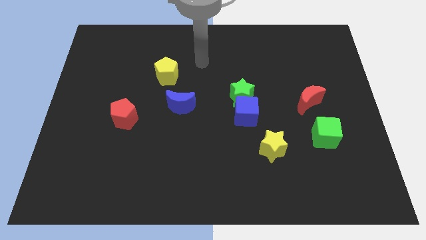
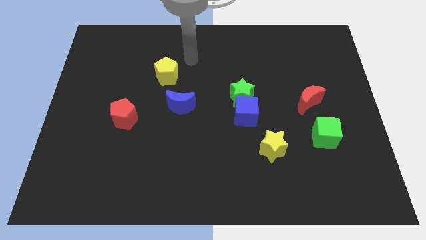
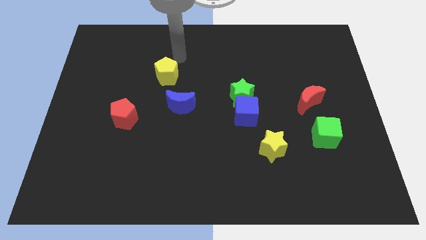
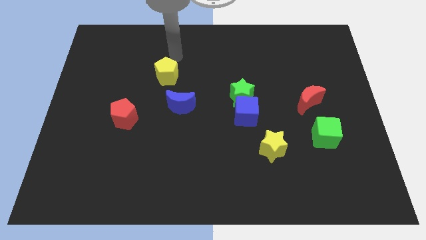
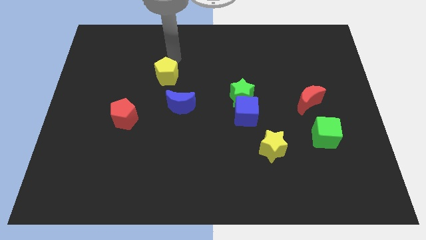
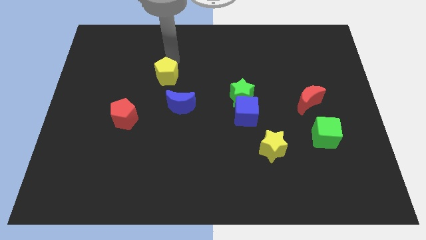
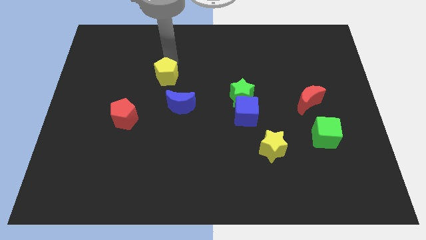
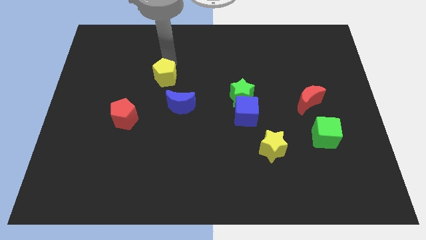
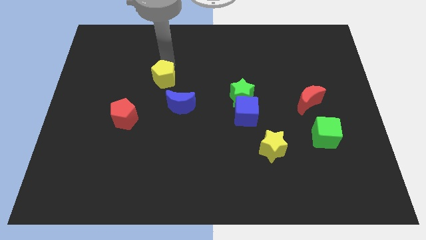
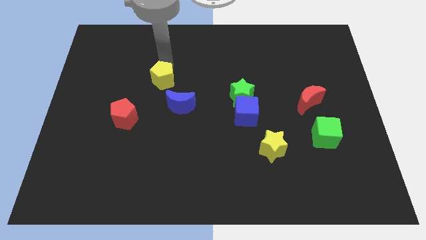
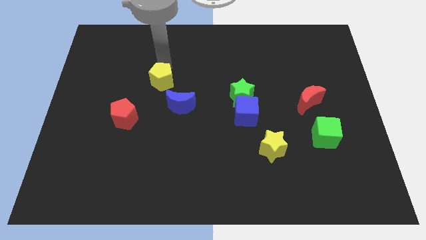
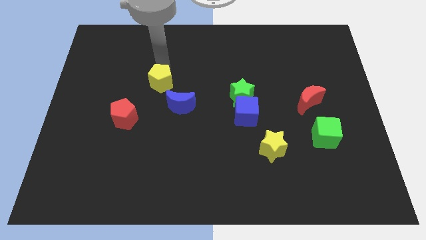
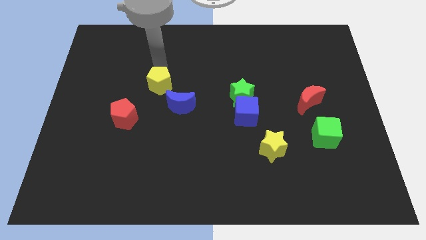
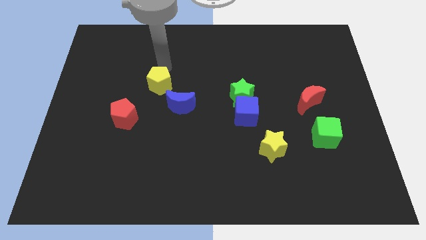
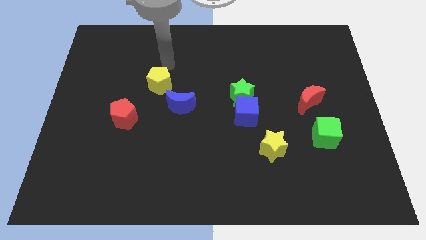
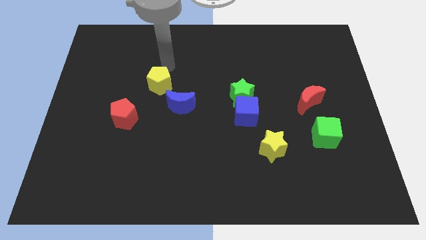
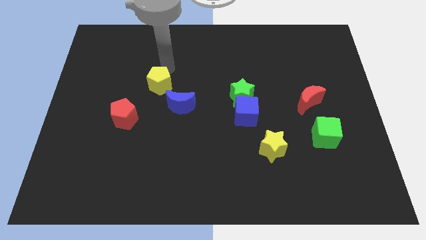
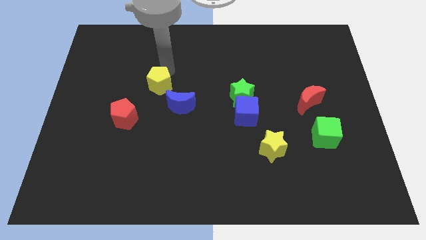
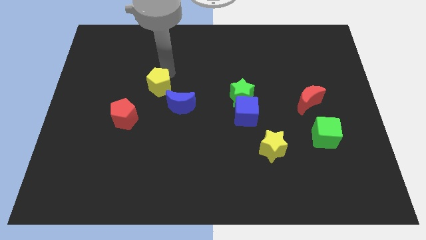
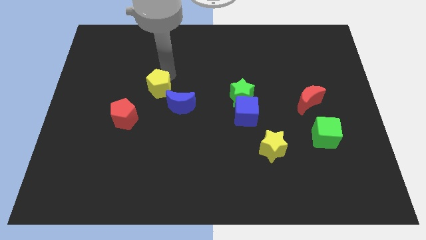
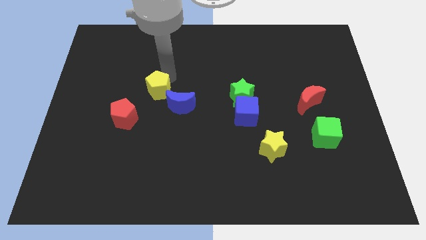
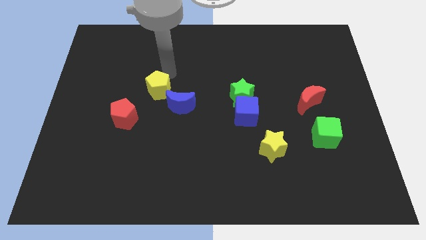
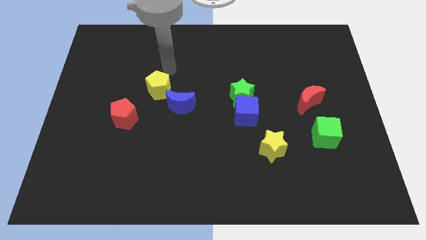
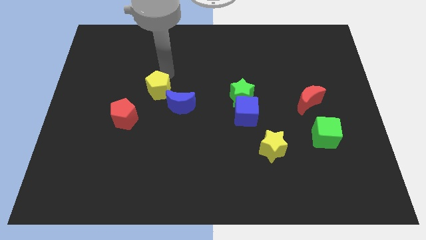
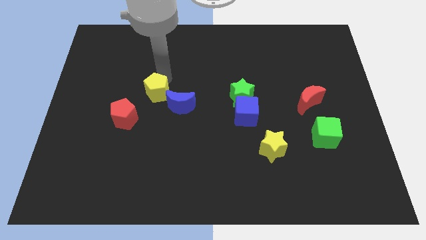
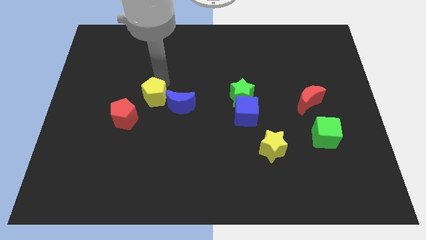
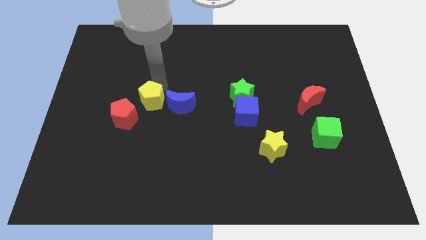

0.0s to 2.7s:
slightly slide the yellow pentagon down

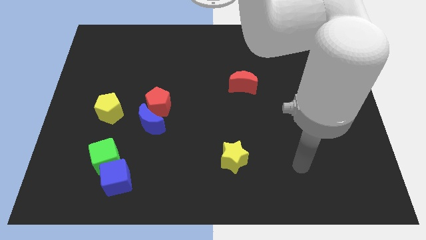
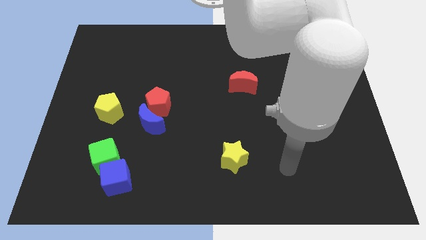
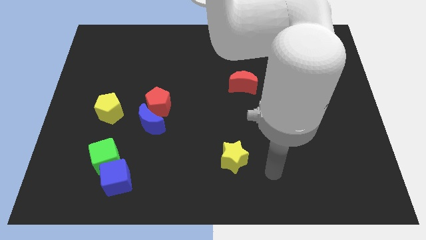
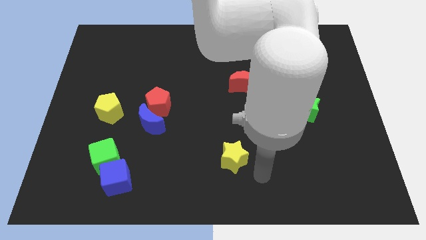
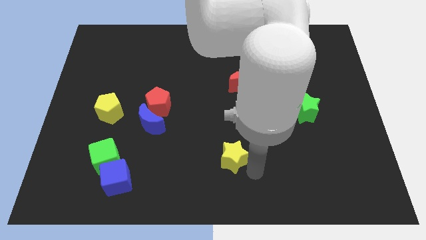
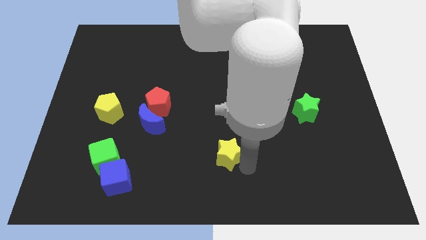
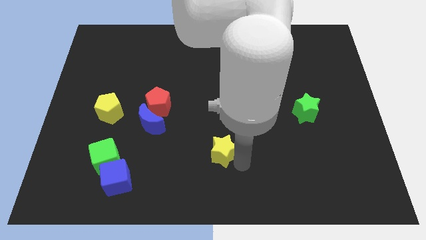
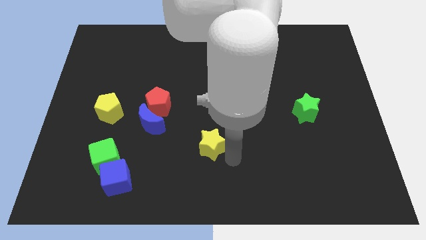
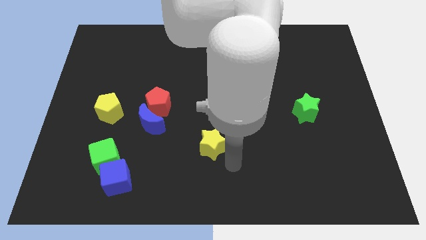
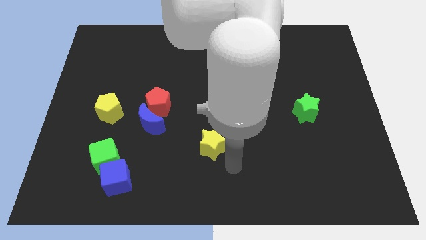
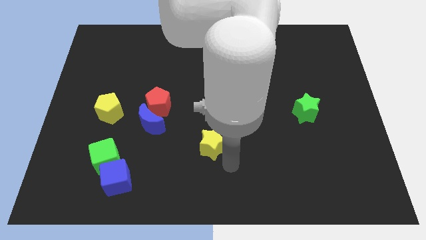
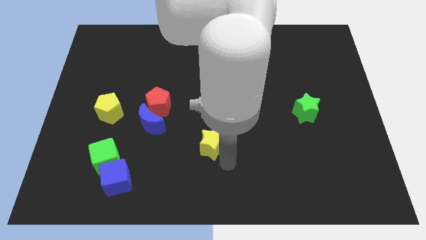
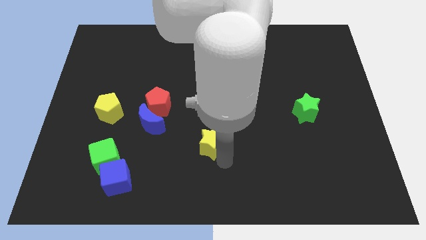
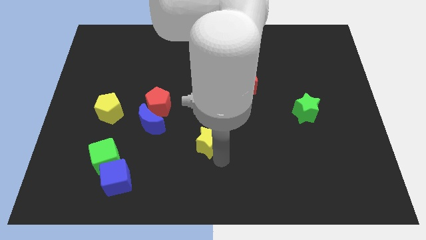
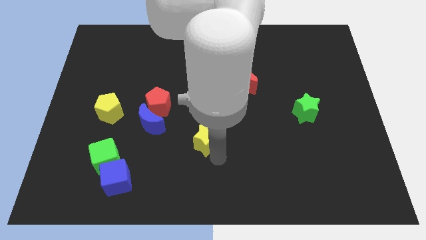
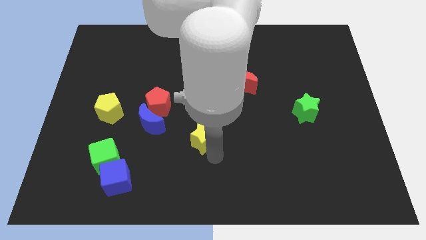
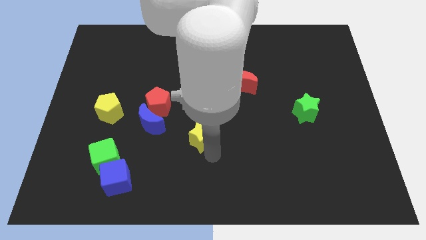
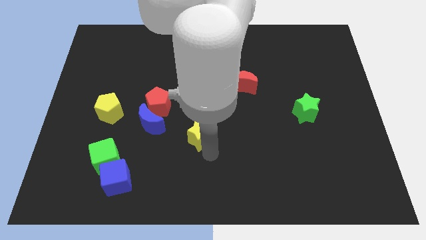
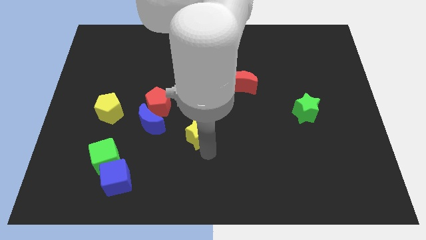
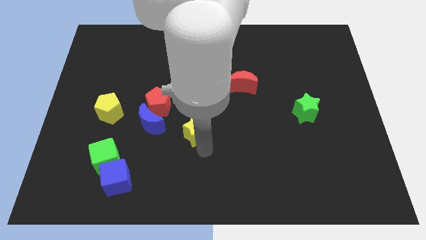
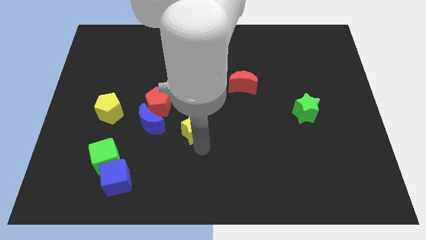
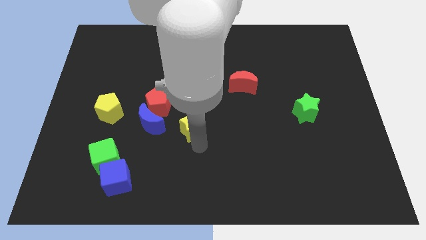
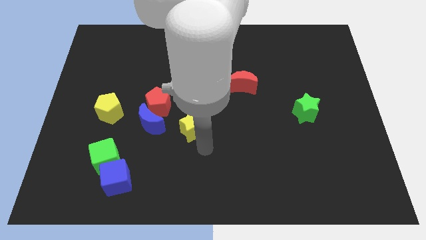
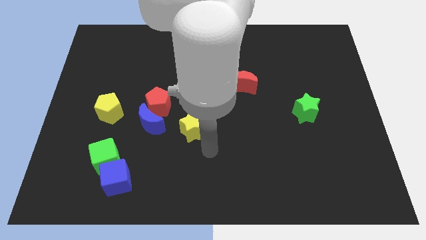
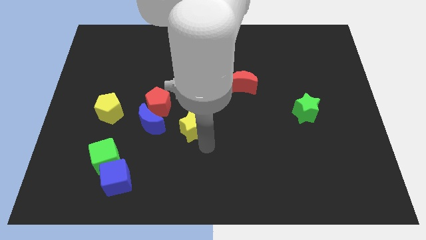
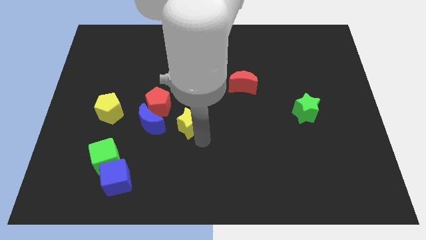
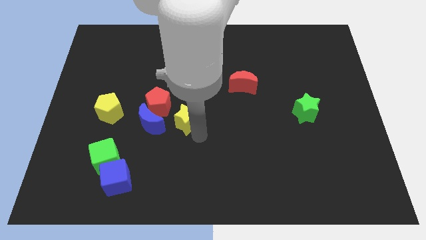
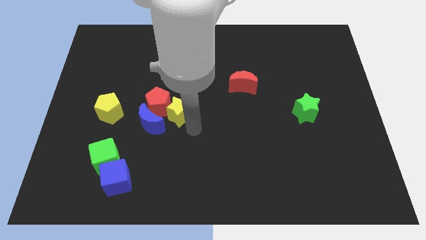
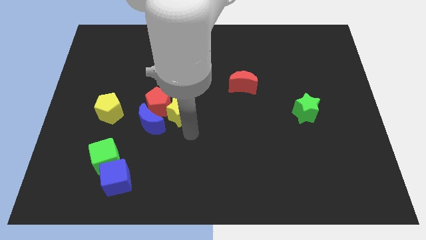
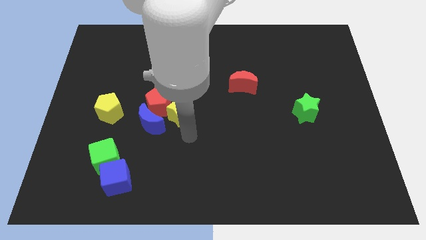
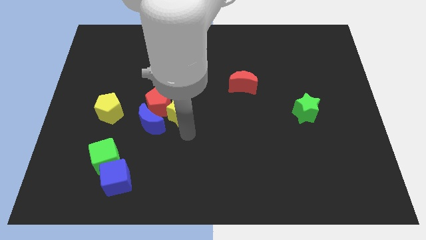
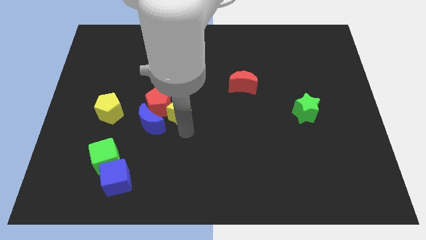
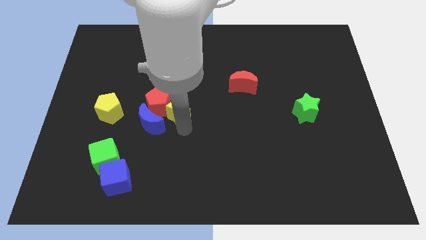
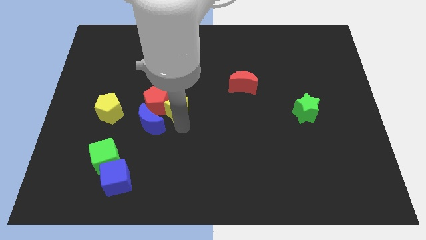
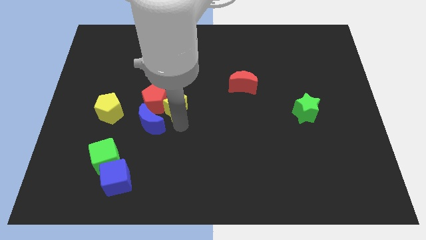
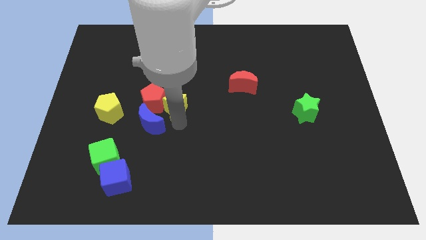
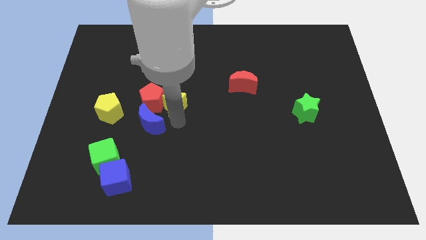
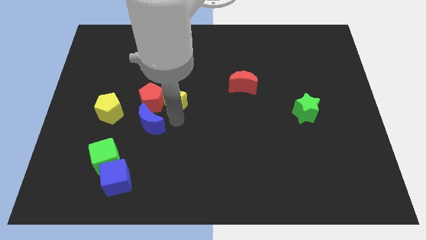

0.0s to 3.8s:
slide the yellow star up and then to the left

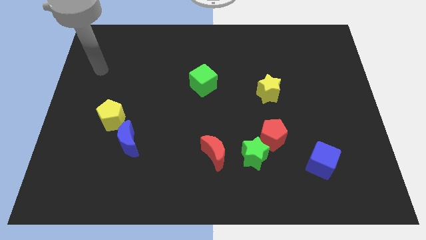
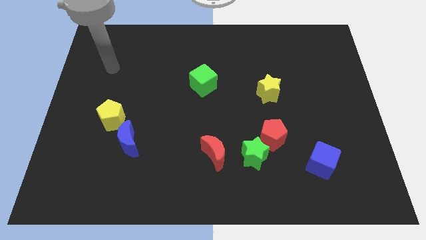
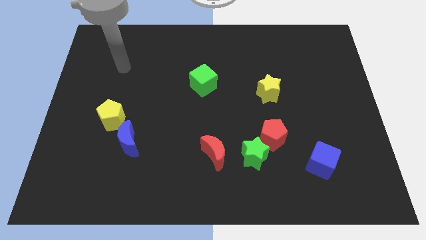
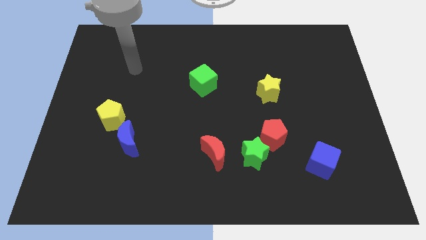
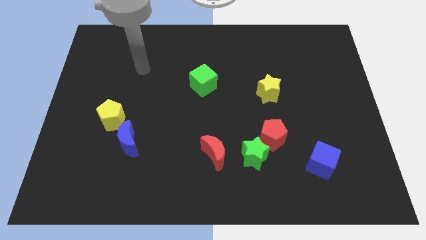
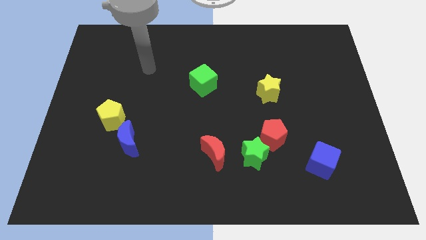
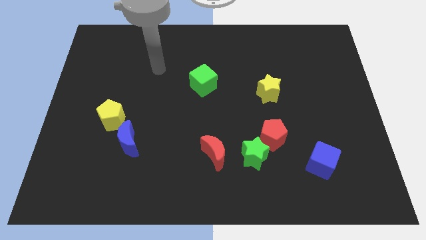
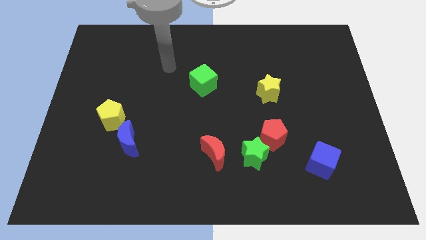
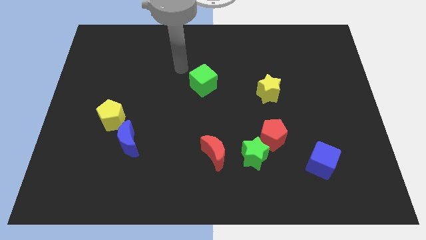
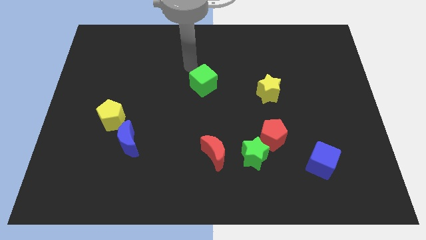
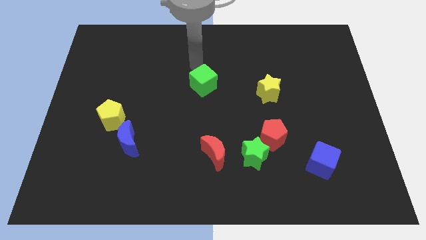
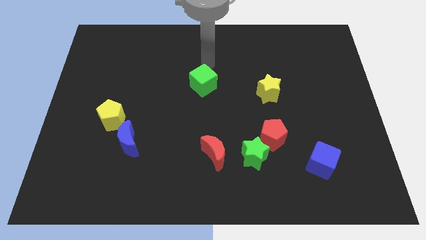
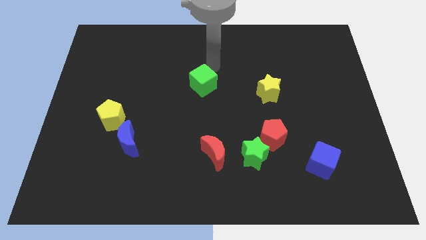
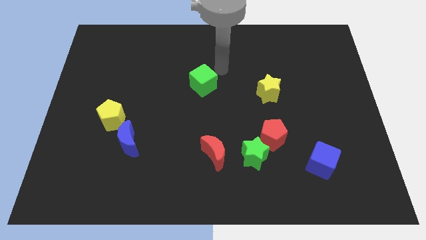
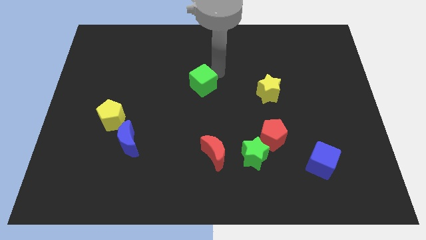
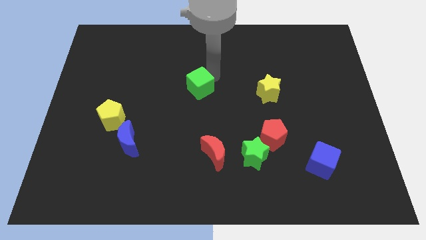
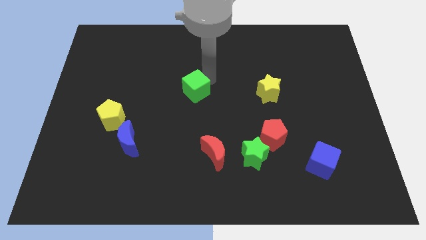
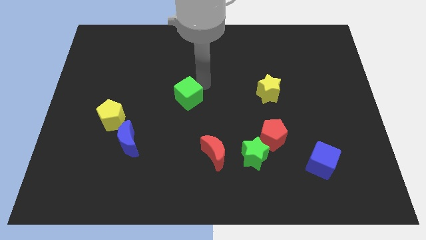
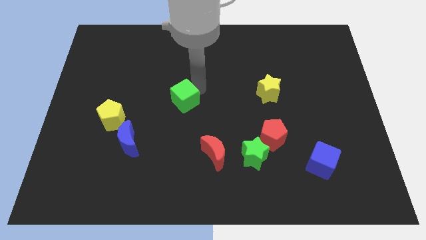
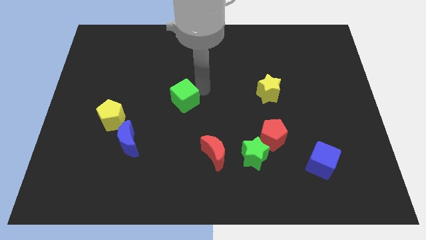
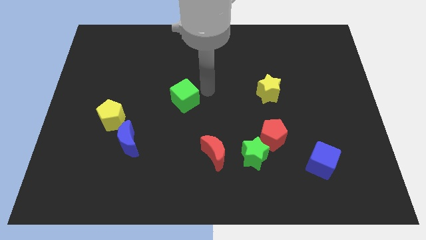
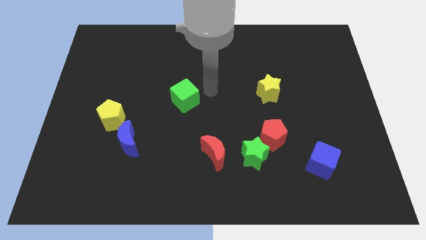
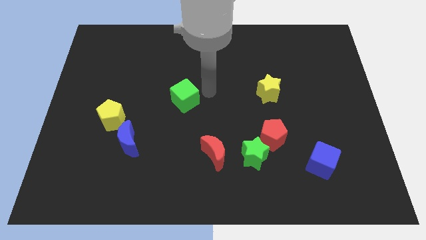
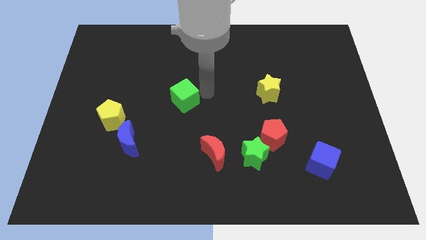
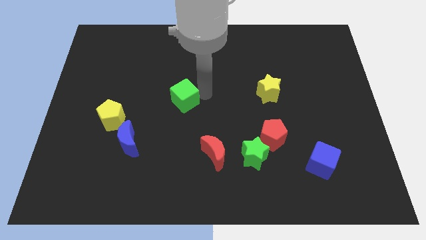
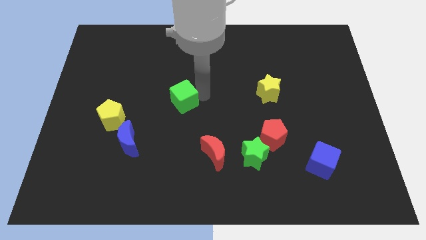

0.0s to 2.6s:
slightly move the green cube downwards and left
